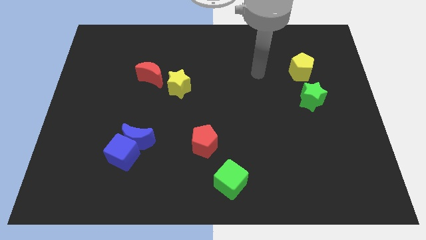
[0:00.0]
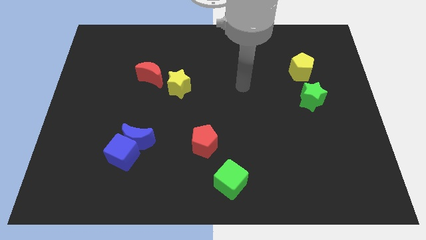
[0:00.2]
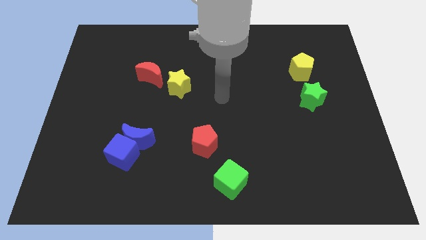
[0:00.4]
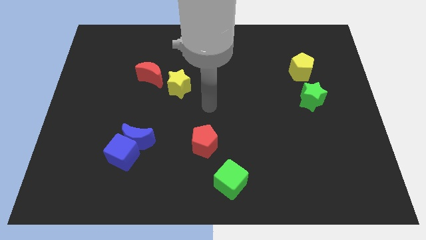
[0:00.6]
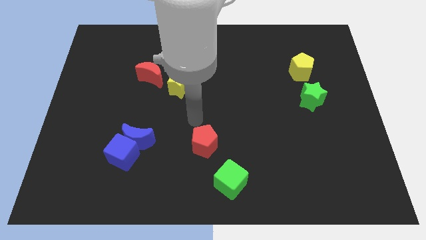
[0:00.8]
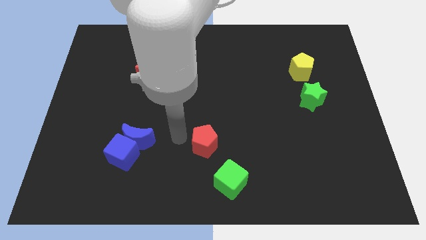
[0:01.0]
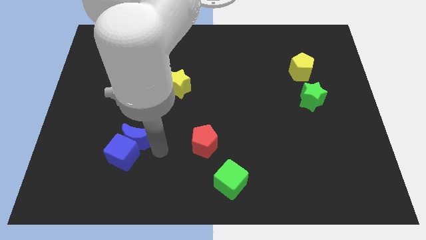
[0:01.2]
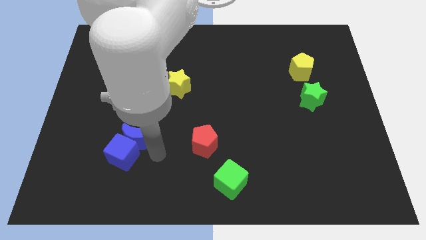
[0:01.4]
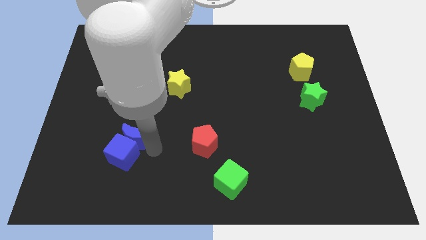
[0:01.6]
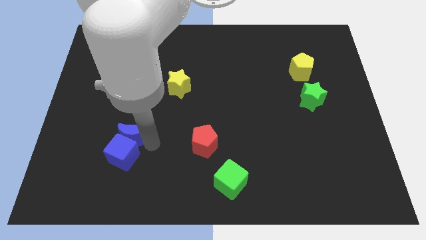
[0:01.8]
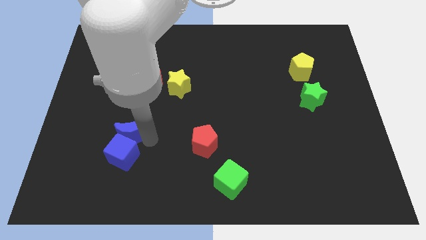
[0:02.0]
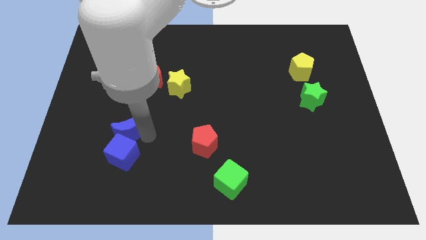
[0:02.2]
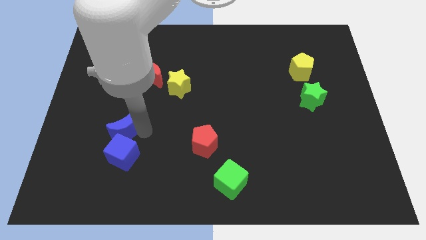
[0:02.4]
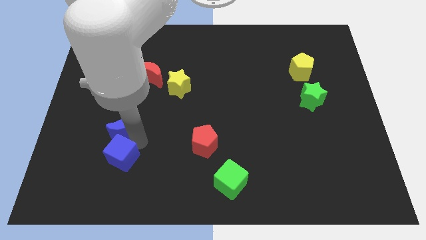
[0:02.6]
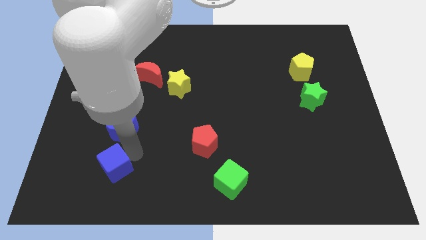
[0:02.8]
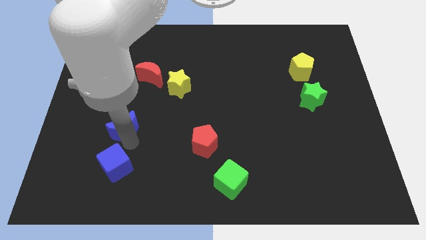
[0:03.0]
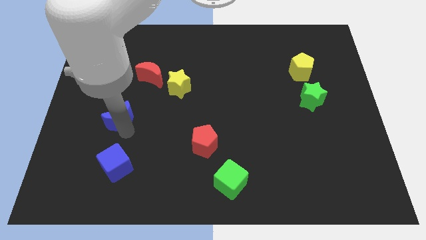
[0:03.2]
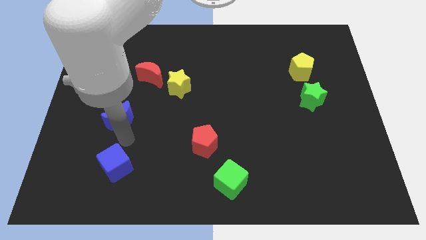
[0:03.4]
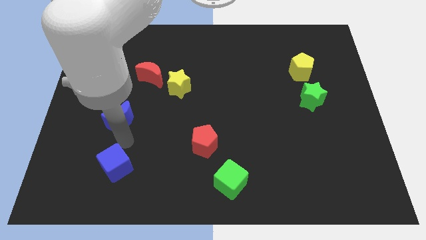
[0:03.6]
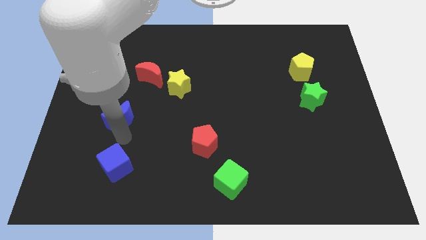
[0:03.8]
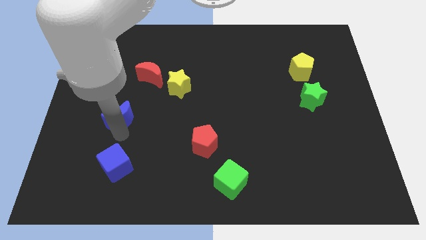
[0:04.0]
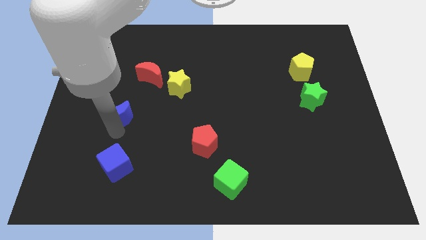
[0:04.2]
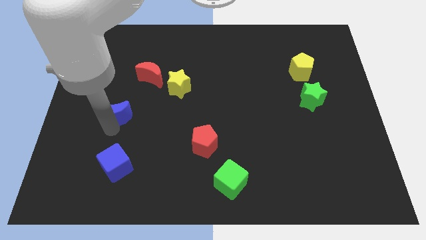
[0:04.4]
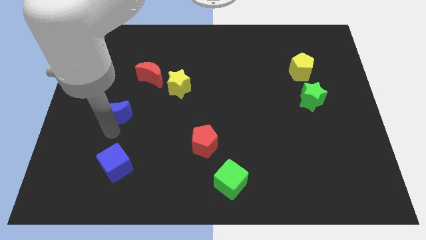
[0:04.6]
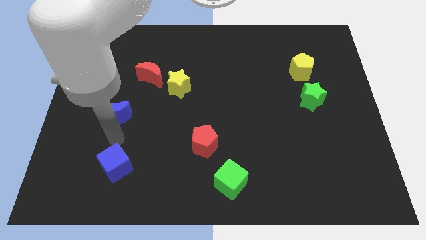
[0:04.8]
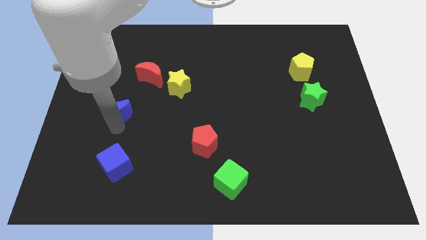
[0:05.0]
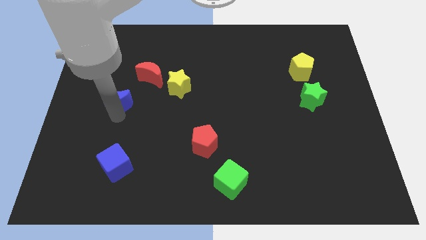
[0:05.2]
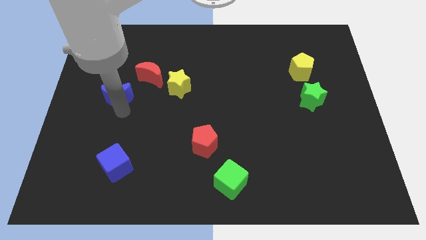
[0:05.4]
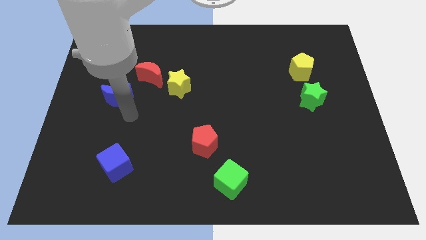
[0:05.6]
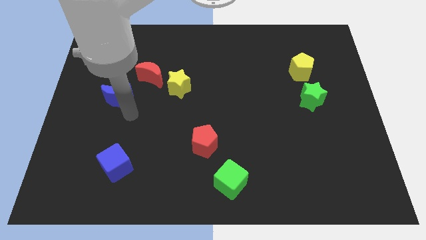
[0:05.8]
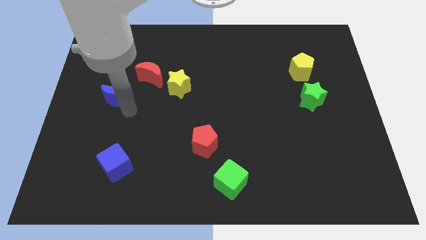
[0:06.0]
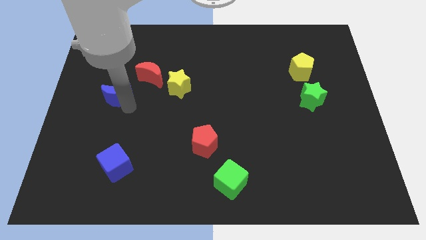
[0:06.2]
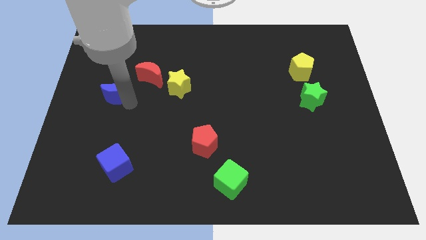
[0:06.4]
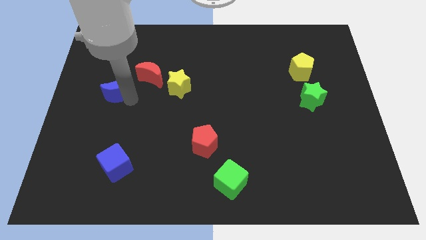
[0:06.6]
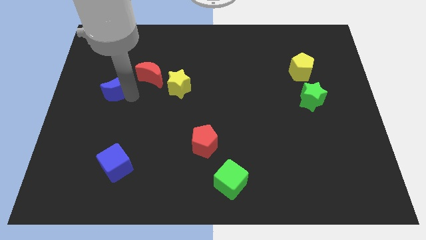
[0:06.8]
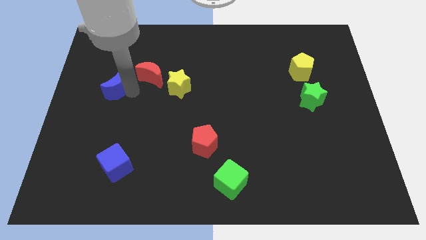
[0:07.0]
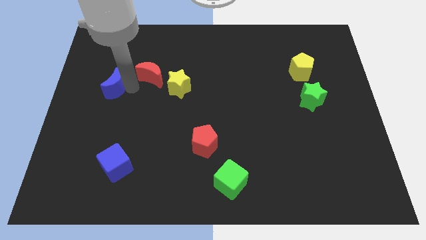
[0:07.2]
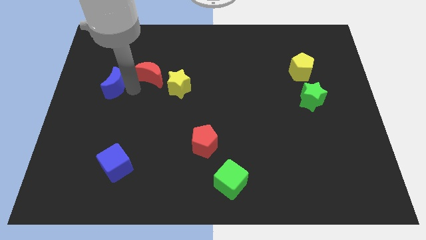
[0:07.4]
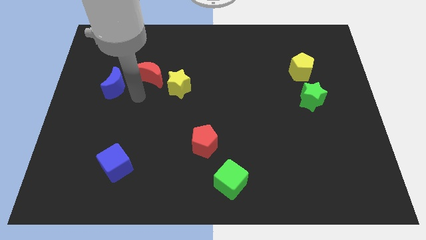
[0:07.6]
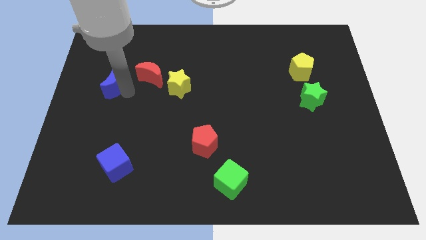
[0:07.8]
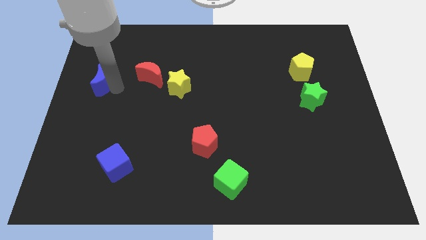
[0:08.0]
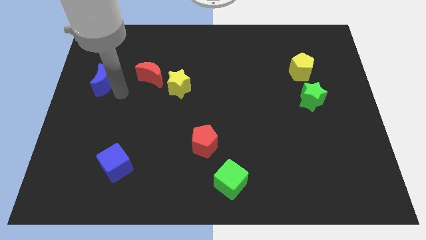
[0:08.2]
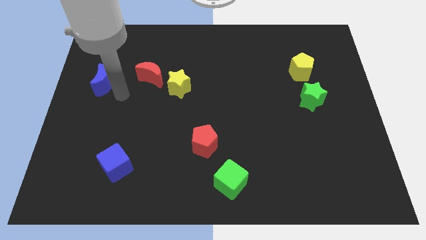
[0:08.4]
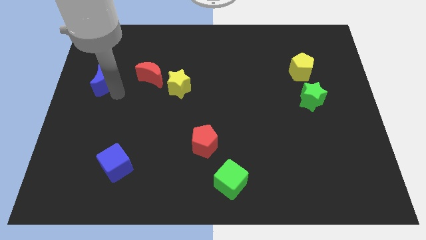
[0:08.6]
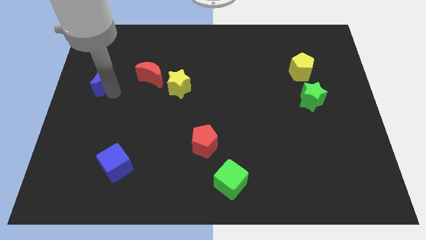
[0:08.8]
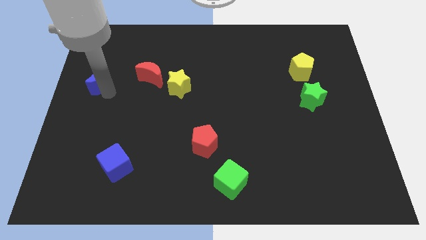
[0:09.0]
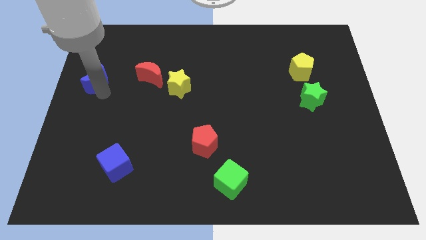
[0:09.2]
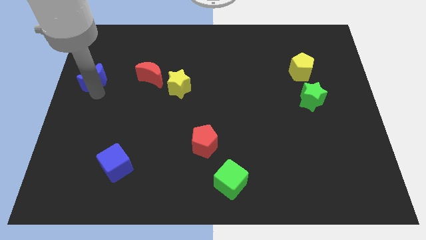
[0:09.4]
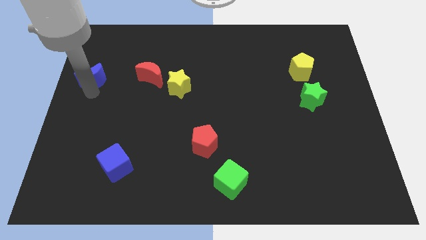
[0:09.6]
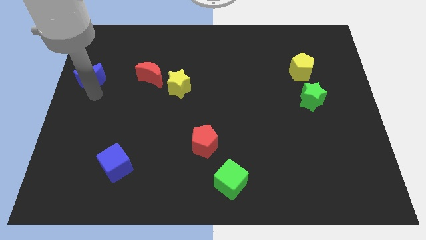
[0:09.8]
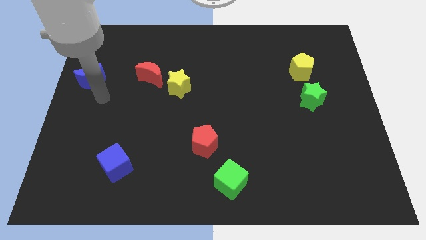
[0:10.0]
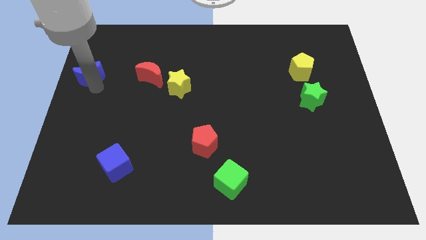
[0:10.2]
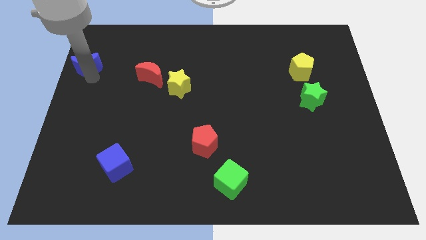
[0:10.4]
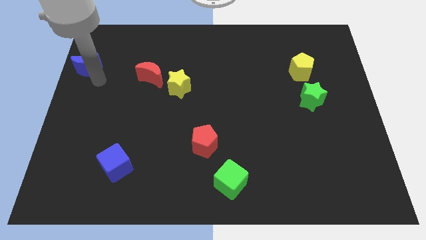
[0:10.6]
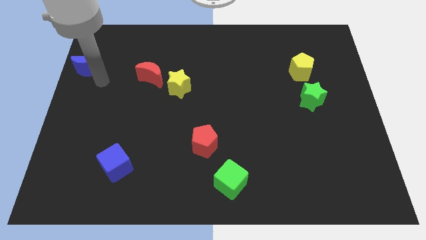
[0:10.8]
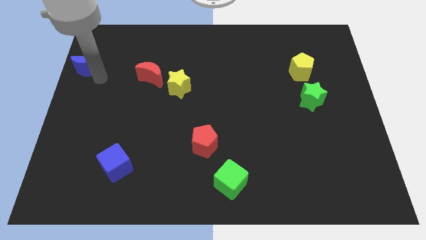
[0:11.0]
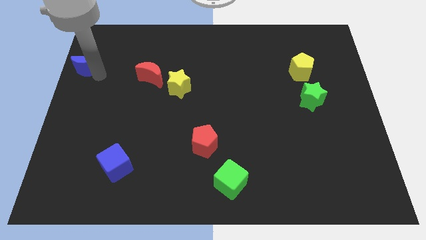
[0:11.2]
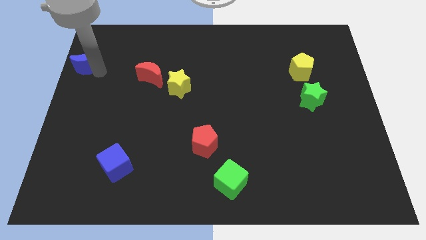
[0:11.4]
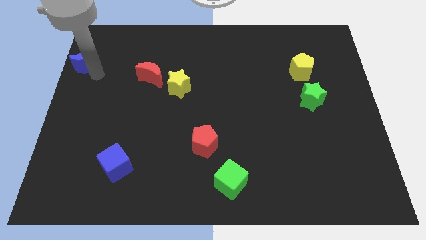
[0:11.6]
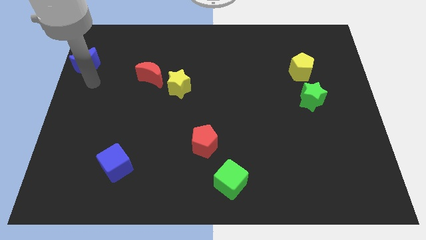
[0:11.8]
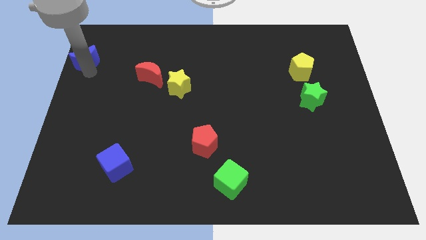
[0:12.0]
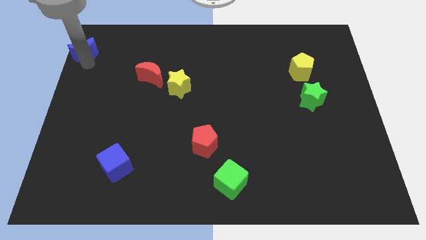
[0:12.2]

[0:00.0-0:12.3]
move the blue moon to the top left

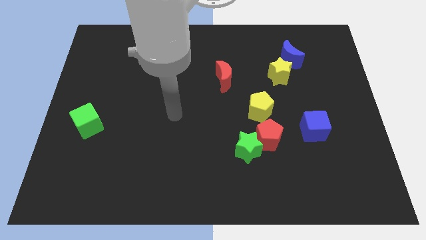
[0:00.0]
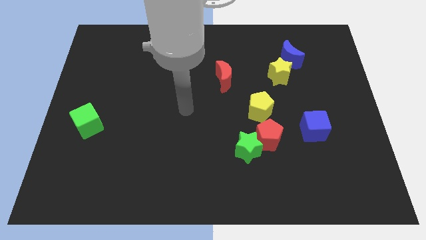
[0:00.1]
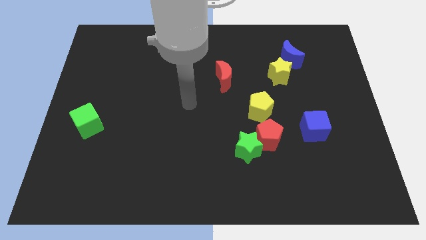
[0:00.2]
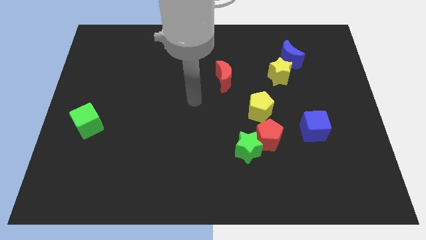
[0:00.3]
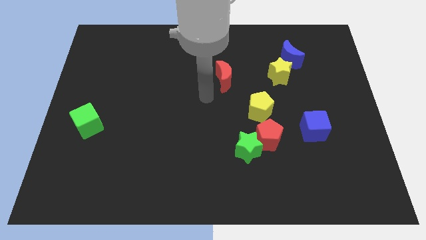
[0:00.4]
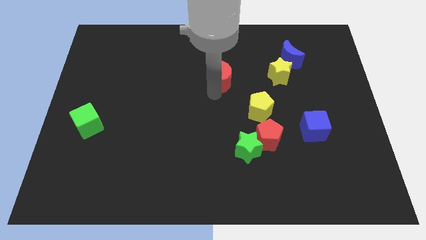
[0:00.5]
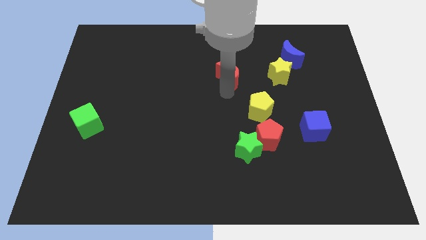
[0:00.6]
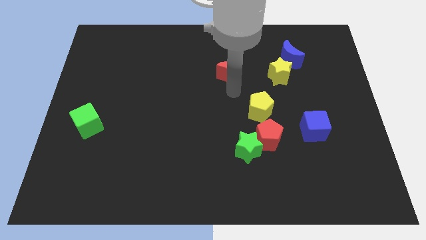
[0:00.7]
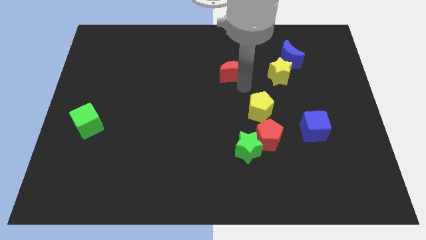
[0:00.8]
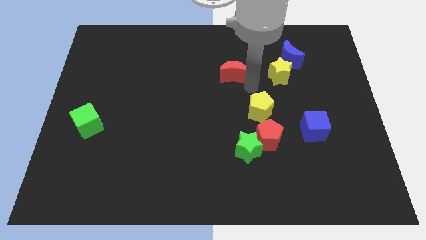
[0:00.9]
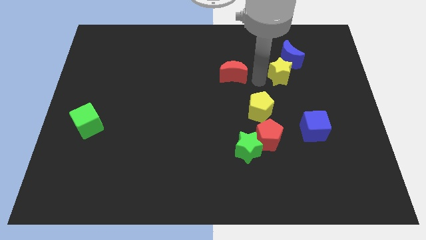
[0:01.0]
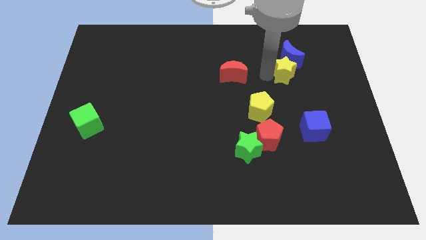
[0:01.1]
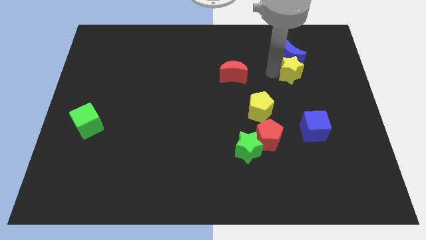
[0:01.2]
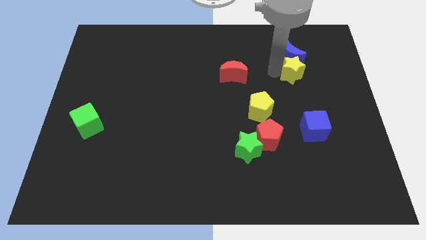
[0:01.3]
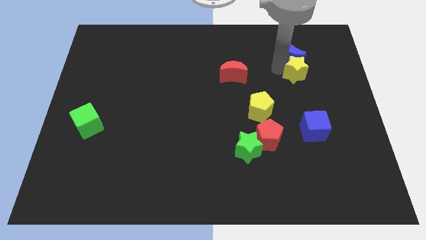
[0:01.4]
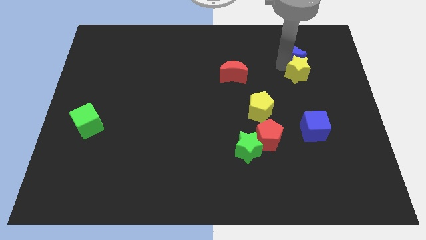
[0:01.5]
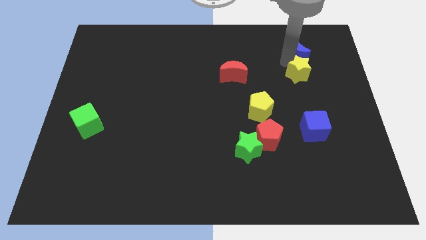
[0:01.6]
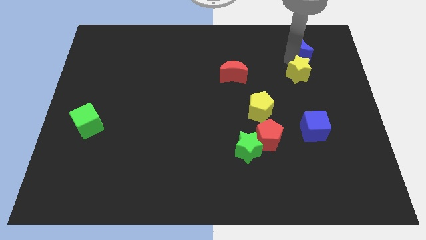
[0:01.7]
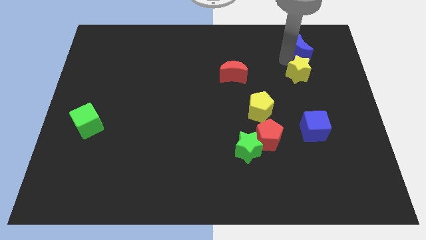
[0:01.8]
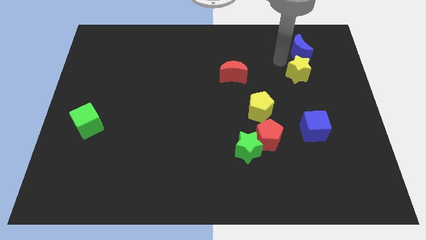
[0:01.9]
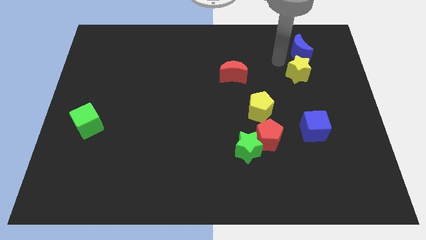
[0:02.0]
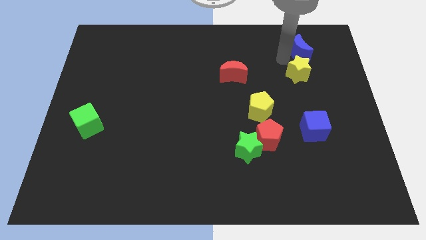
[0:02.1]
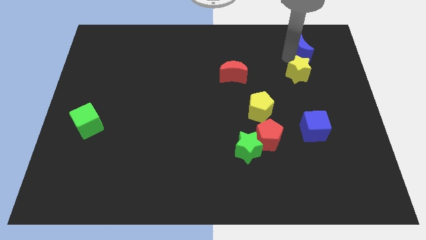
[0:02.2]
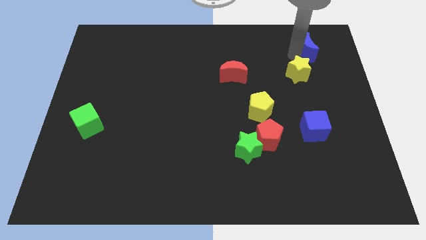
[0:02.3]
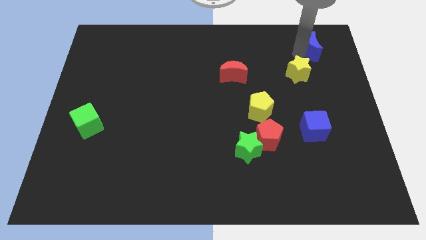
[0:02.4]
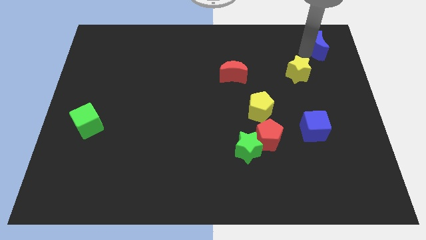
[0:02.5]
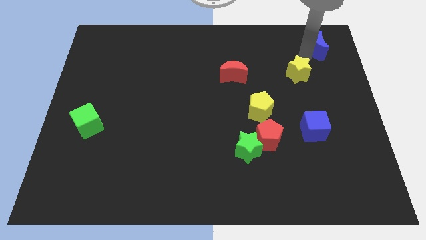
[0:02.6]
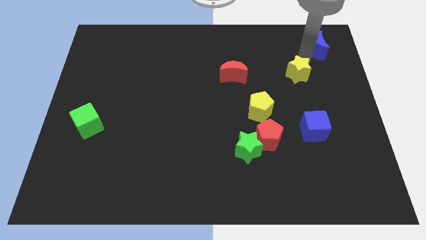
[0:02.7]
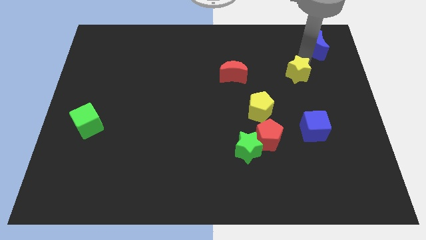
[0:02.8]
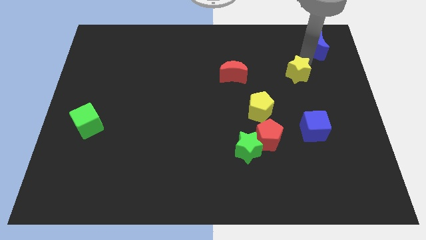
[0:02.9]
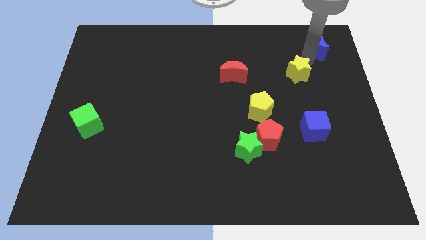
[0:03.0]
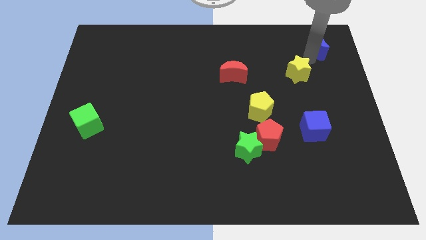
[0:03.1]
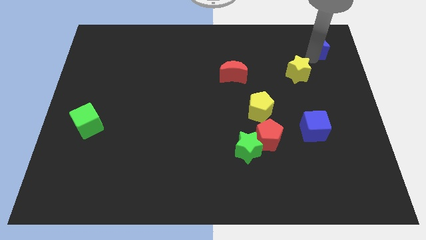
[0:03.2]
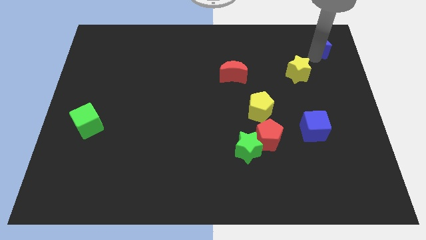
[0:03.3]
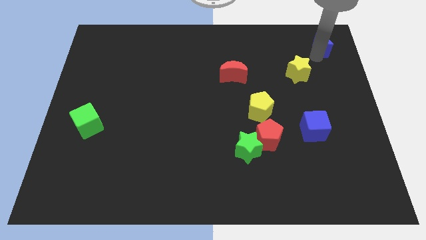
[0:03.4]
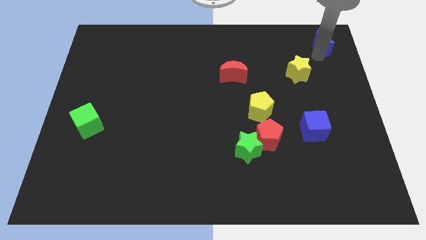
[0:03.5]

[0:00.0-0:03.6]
push the blue moon to the upper right corner
